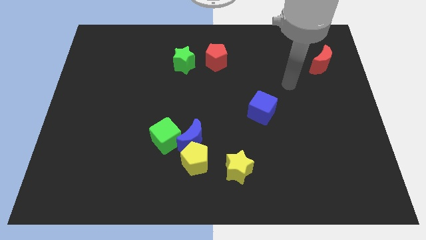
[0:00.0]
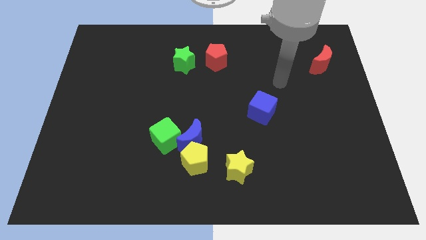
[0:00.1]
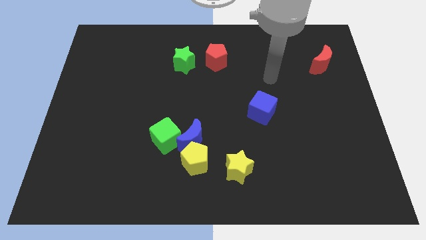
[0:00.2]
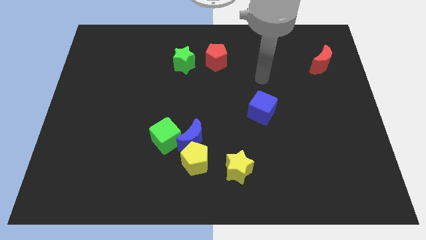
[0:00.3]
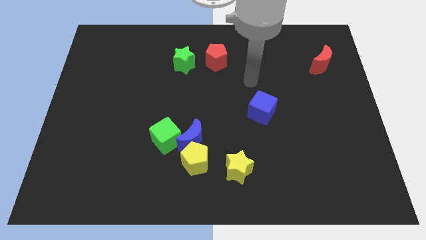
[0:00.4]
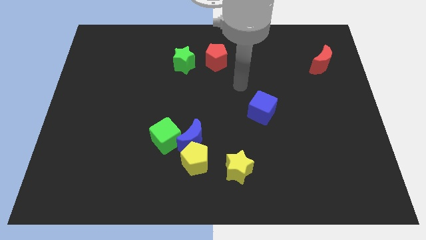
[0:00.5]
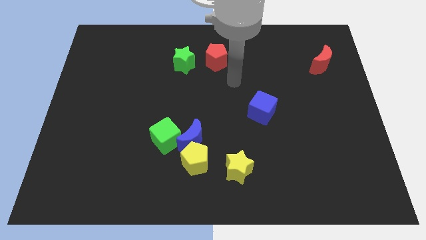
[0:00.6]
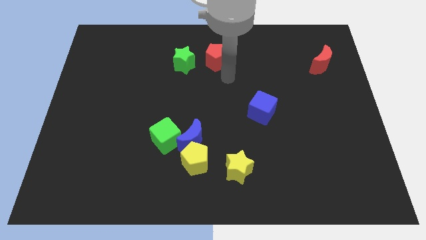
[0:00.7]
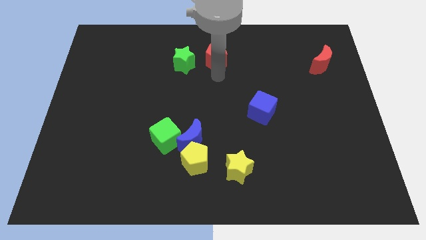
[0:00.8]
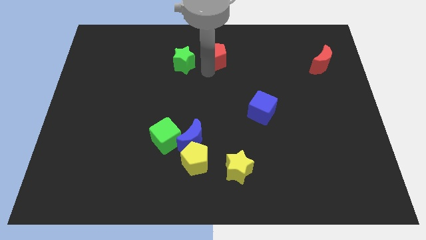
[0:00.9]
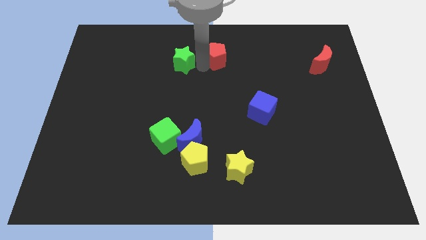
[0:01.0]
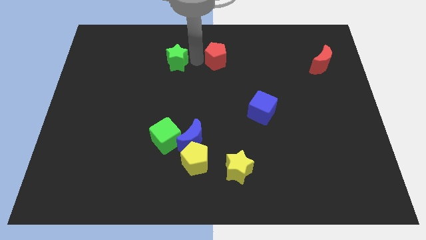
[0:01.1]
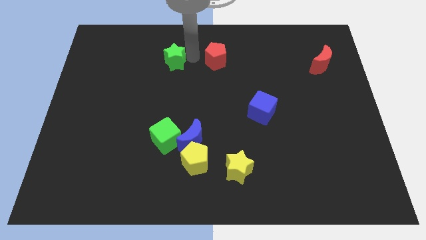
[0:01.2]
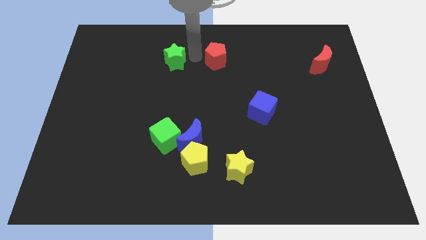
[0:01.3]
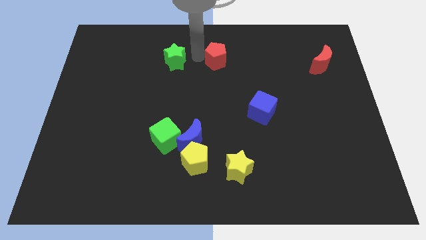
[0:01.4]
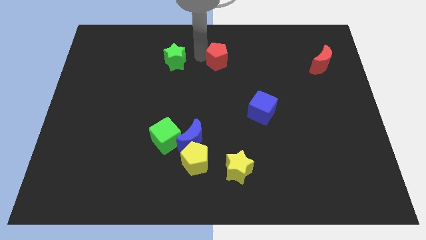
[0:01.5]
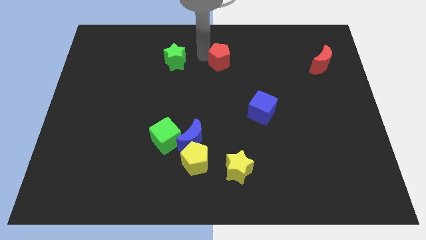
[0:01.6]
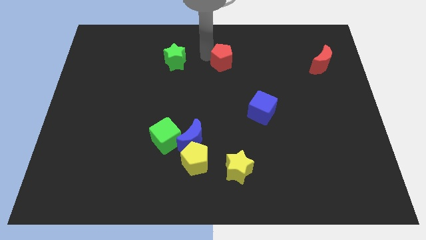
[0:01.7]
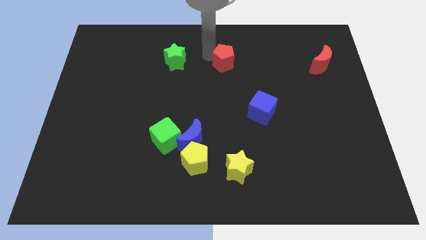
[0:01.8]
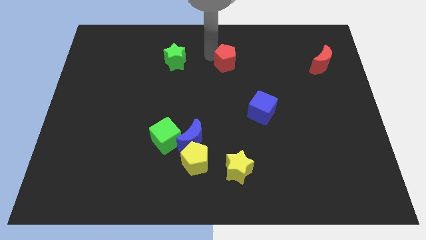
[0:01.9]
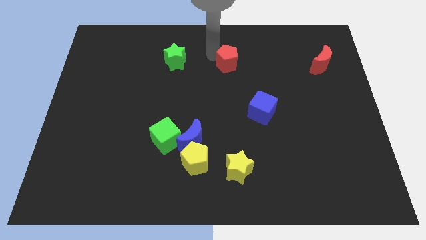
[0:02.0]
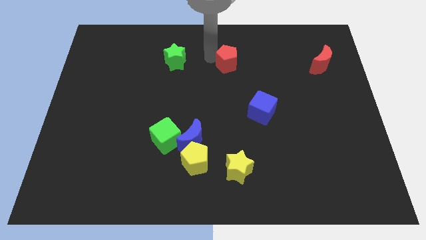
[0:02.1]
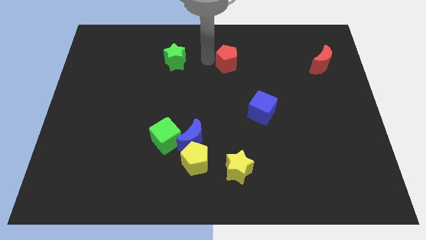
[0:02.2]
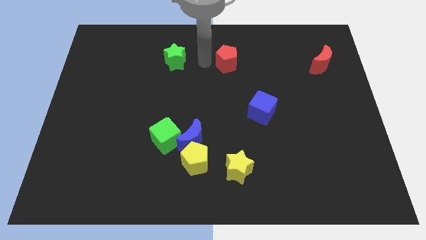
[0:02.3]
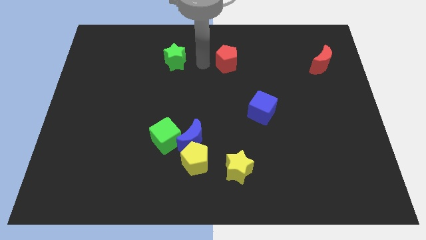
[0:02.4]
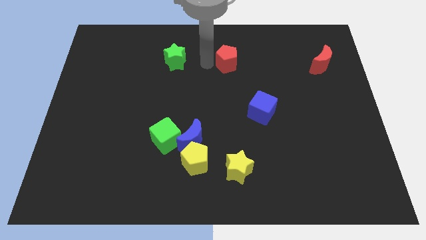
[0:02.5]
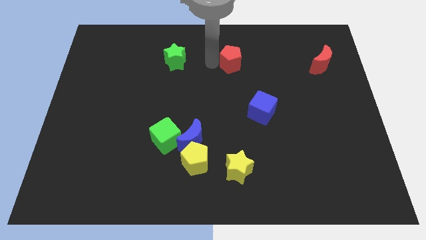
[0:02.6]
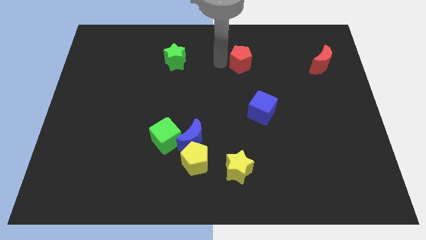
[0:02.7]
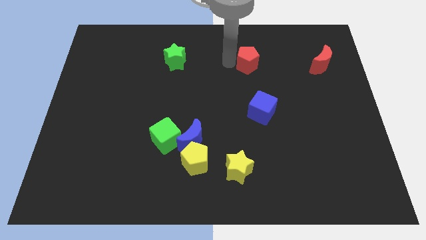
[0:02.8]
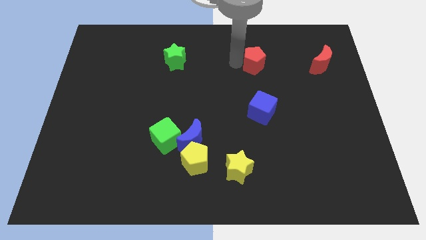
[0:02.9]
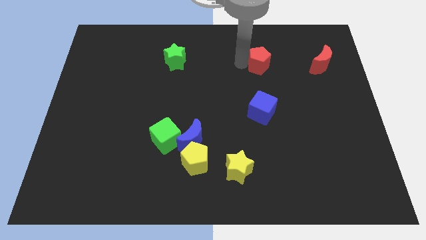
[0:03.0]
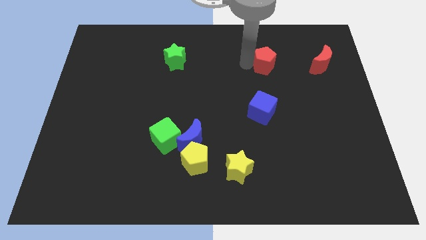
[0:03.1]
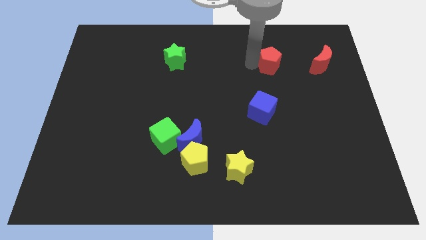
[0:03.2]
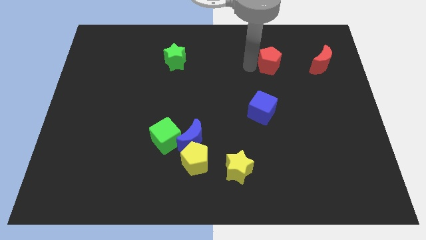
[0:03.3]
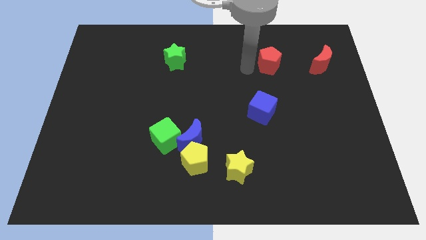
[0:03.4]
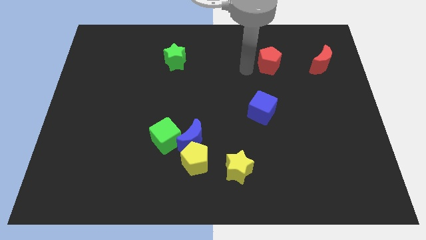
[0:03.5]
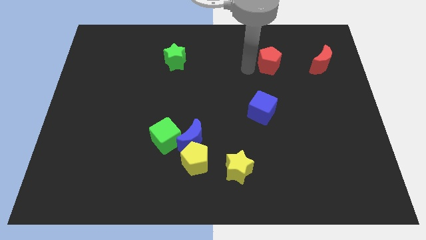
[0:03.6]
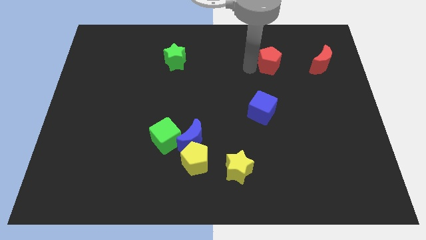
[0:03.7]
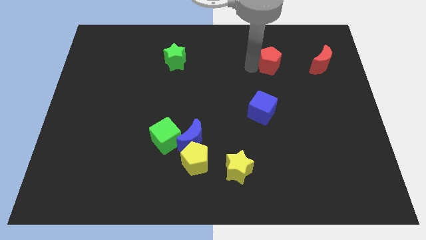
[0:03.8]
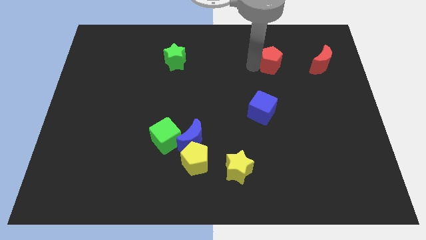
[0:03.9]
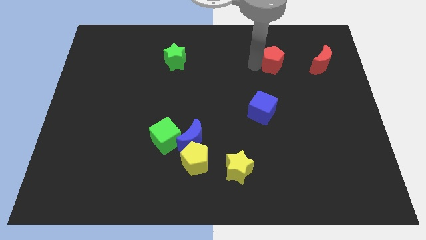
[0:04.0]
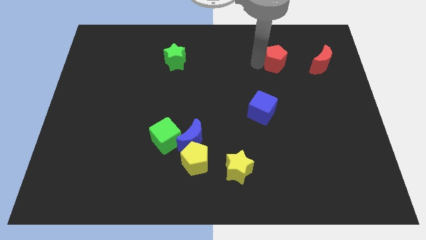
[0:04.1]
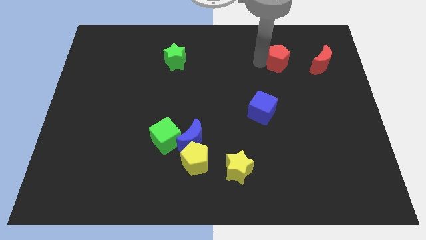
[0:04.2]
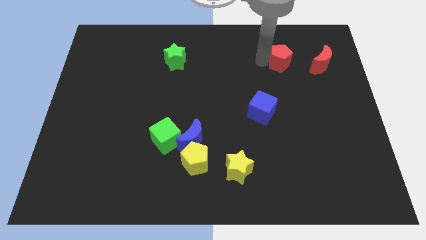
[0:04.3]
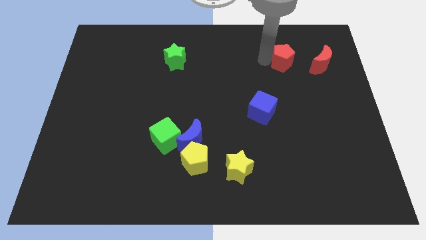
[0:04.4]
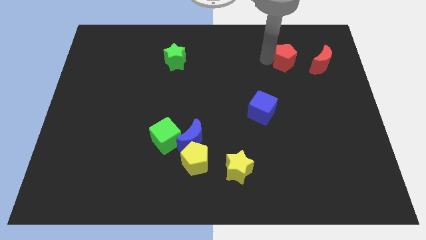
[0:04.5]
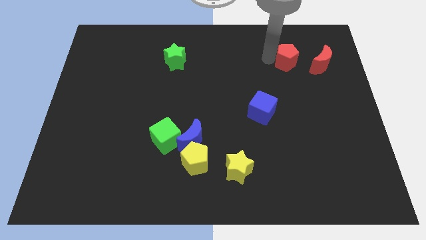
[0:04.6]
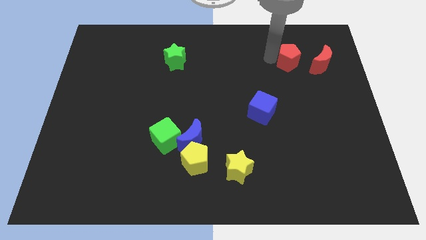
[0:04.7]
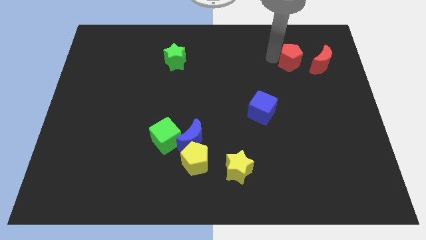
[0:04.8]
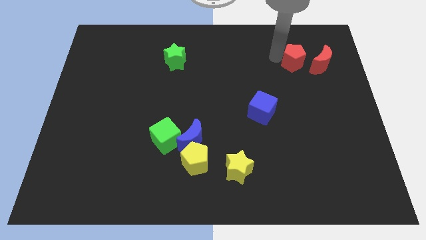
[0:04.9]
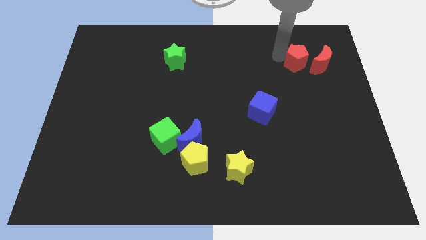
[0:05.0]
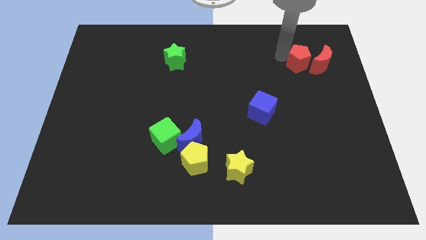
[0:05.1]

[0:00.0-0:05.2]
push the red pentagon next to the red moon
